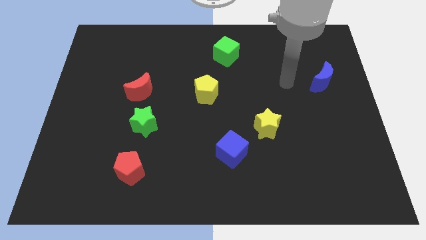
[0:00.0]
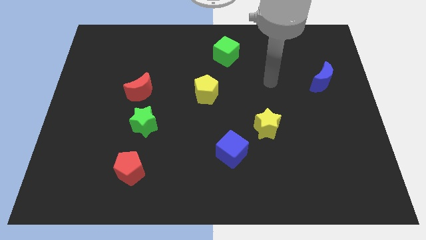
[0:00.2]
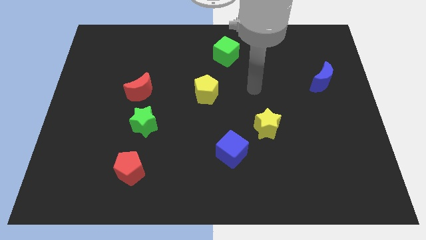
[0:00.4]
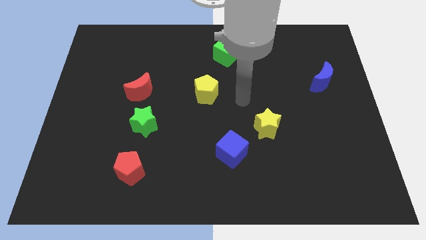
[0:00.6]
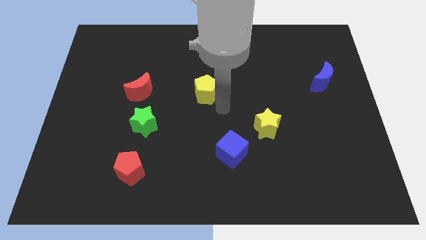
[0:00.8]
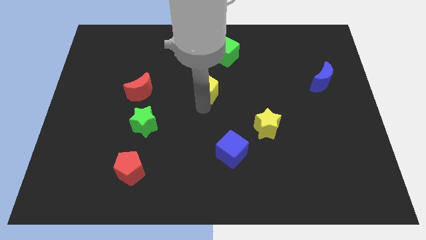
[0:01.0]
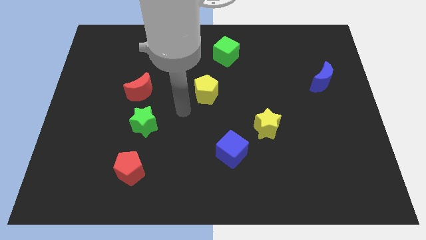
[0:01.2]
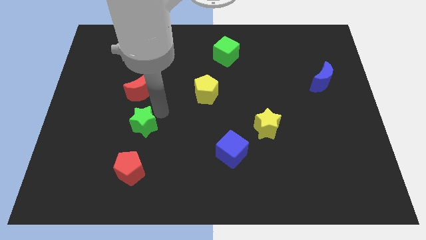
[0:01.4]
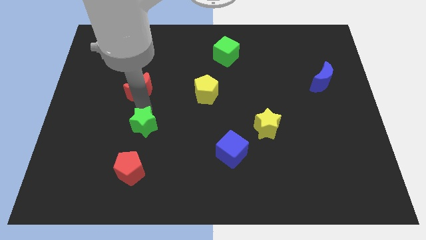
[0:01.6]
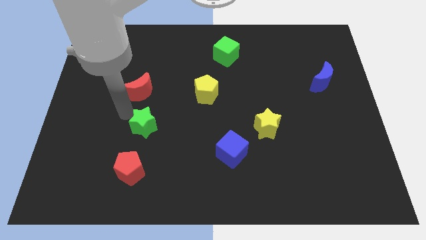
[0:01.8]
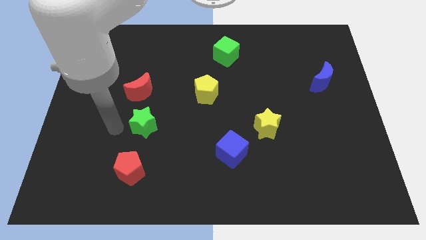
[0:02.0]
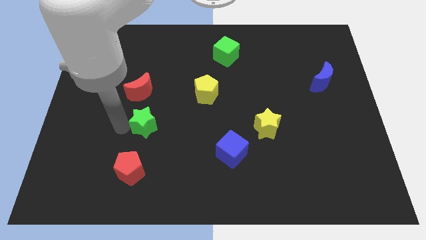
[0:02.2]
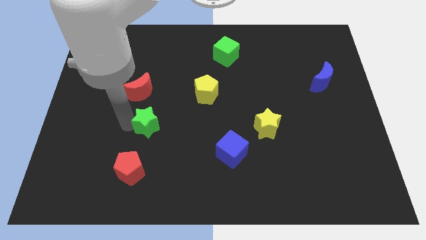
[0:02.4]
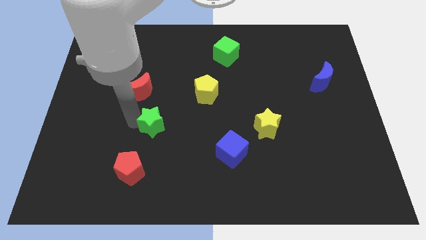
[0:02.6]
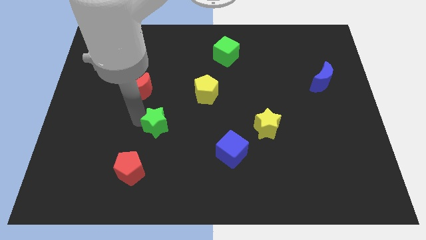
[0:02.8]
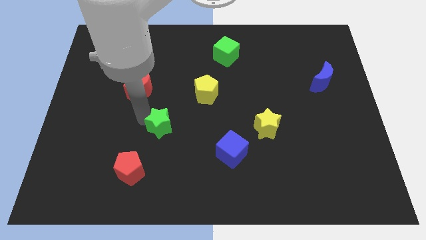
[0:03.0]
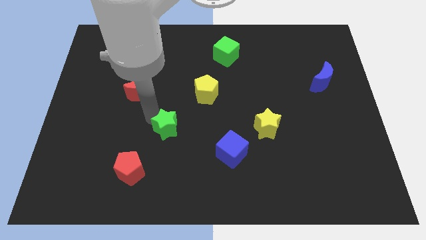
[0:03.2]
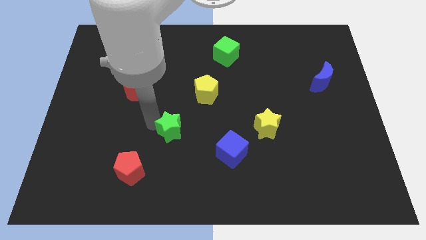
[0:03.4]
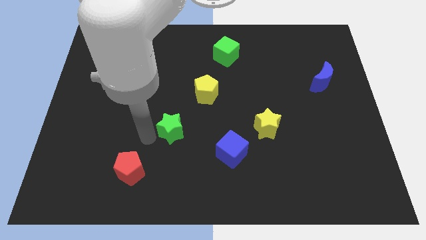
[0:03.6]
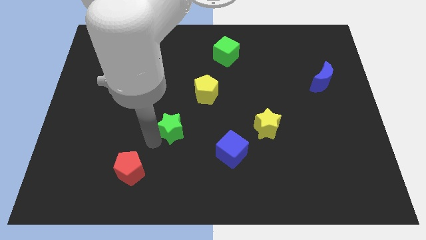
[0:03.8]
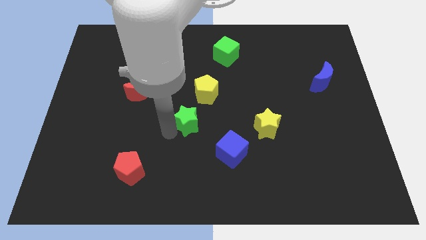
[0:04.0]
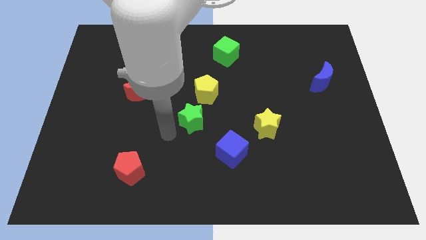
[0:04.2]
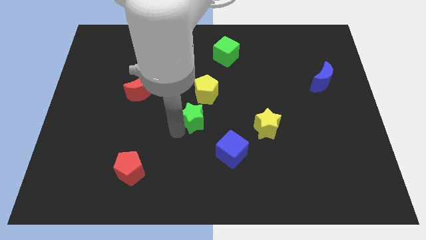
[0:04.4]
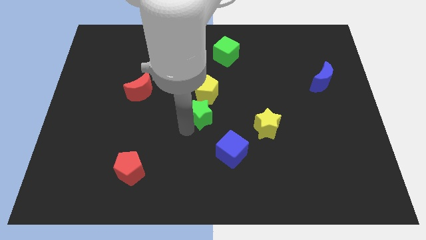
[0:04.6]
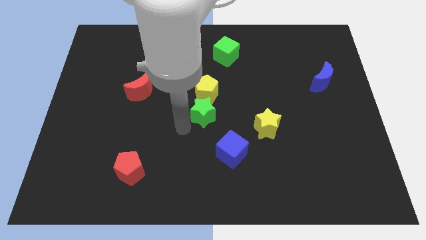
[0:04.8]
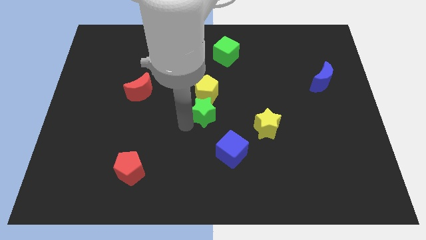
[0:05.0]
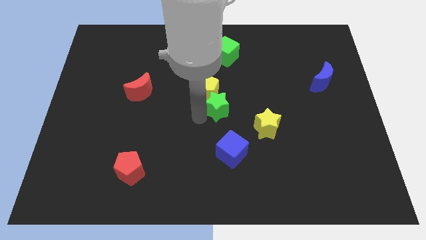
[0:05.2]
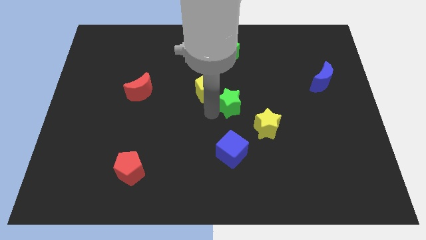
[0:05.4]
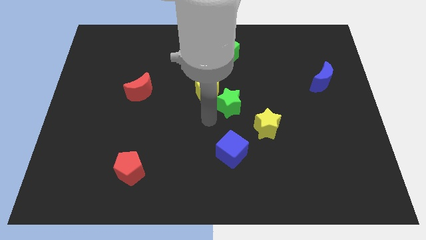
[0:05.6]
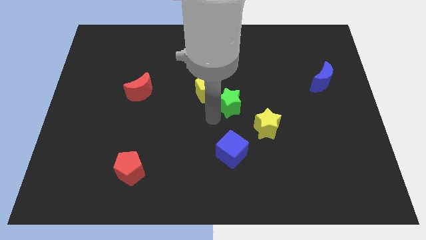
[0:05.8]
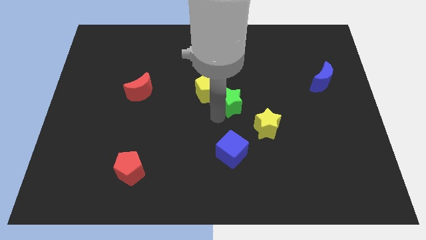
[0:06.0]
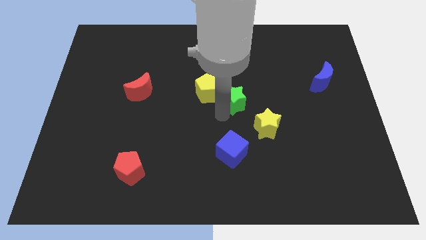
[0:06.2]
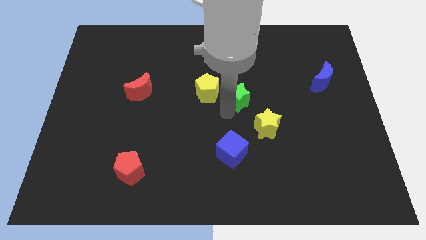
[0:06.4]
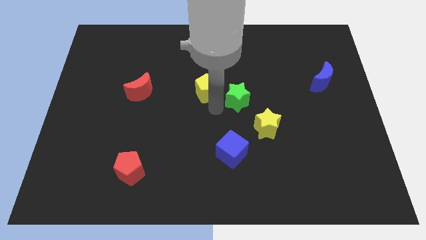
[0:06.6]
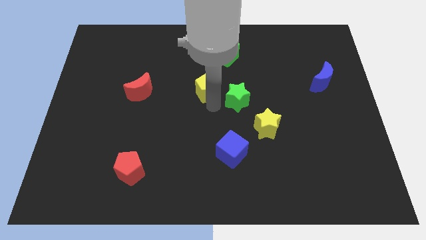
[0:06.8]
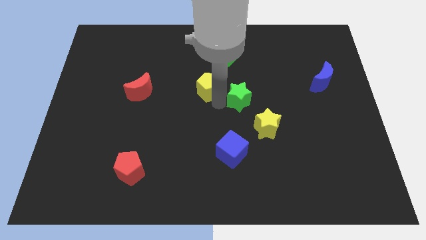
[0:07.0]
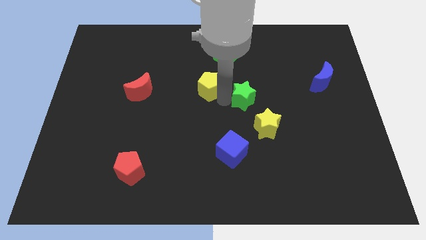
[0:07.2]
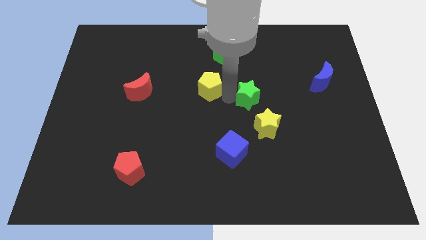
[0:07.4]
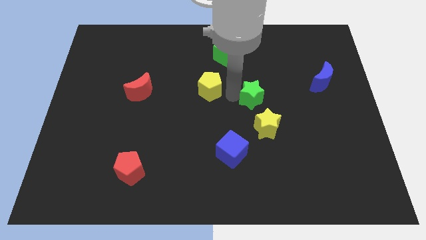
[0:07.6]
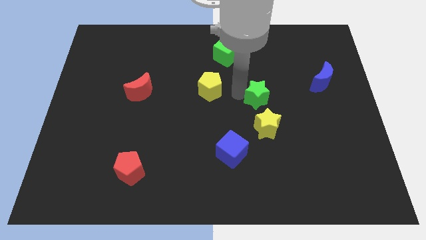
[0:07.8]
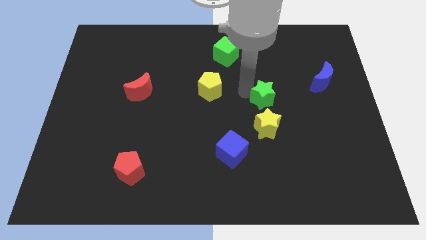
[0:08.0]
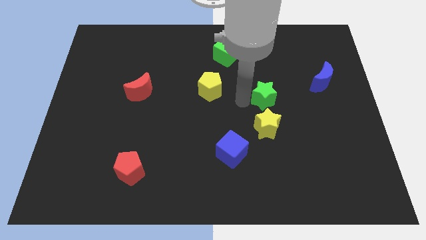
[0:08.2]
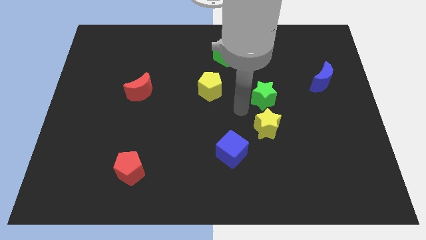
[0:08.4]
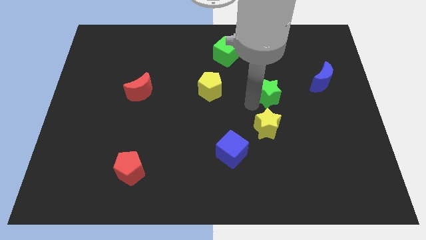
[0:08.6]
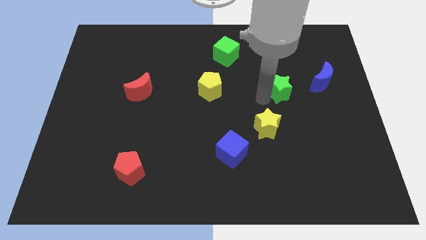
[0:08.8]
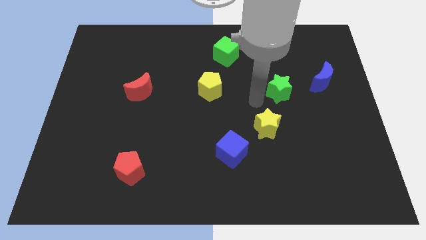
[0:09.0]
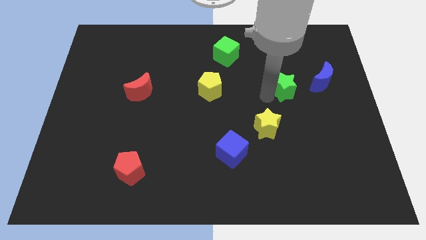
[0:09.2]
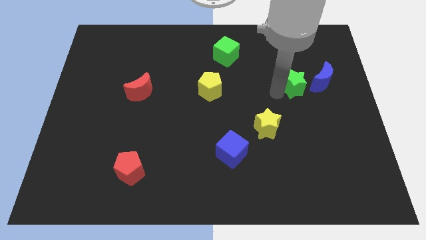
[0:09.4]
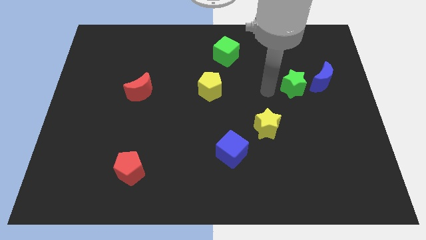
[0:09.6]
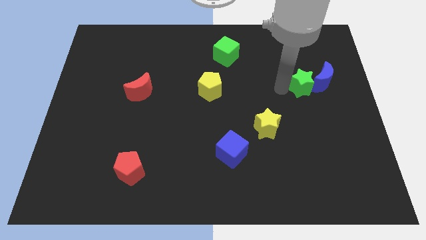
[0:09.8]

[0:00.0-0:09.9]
slide the green star next to the blue moon

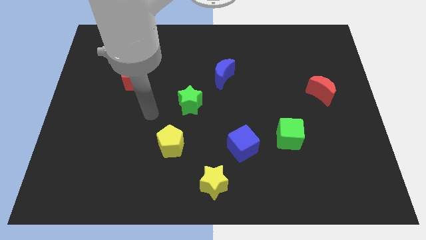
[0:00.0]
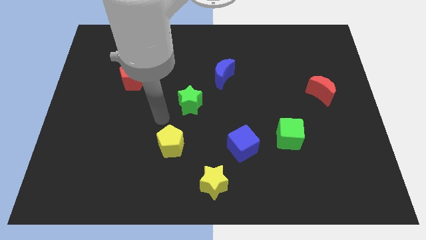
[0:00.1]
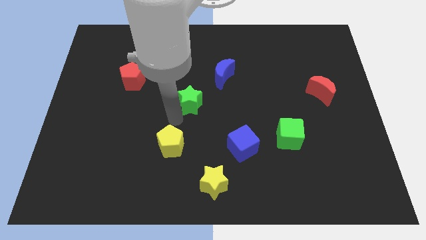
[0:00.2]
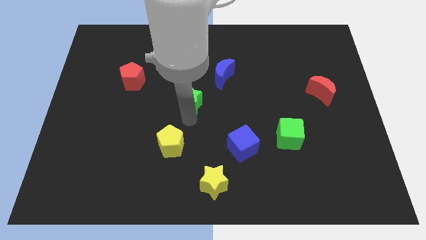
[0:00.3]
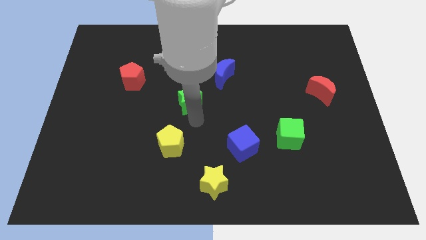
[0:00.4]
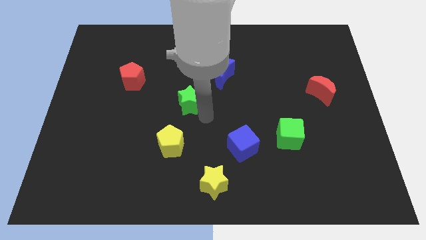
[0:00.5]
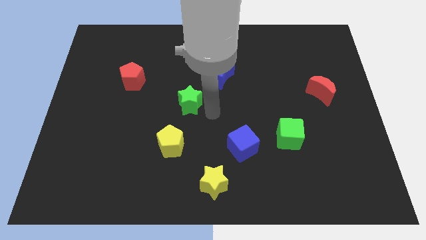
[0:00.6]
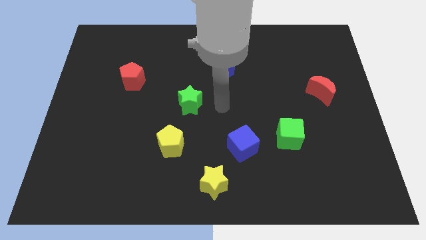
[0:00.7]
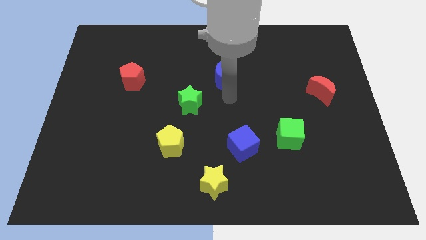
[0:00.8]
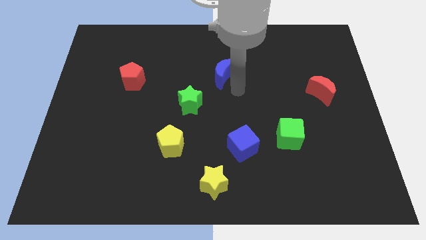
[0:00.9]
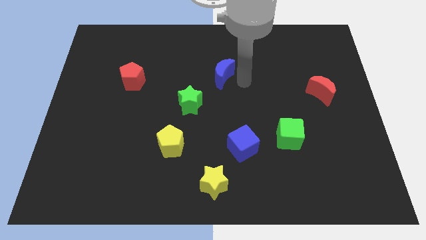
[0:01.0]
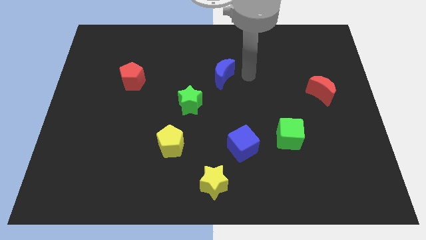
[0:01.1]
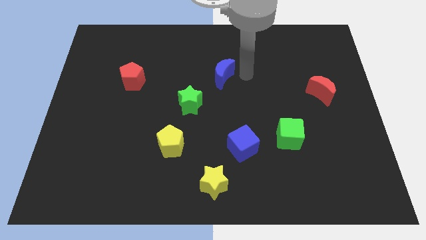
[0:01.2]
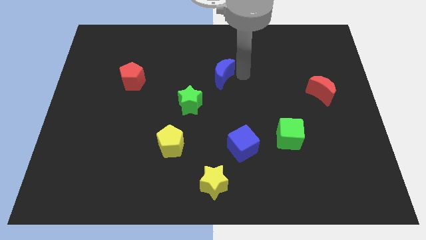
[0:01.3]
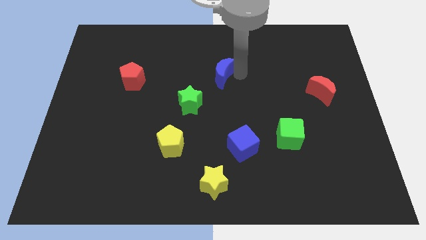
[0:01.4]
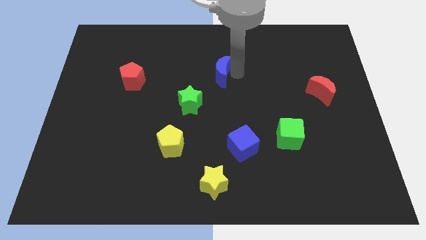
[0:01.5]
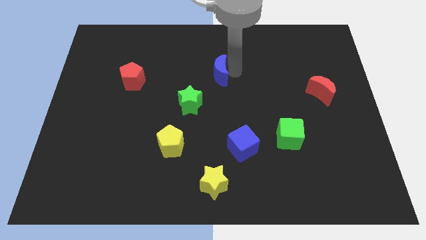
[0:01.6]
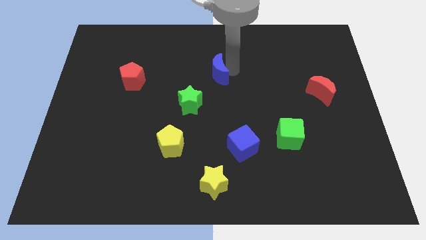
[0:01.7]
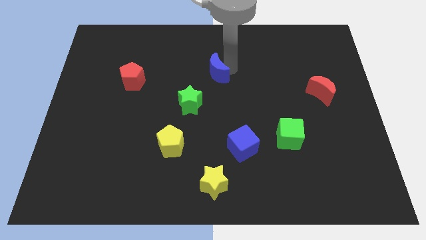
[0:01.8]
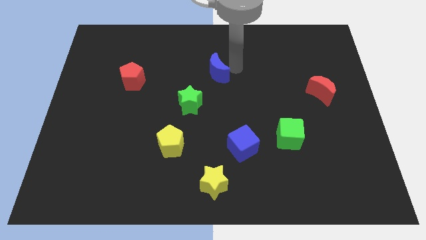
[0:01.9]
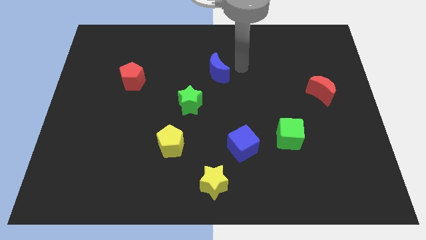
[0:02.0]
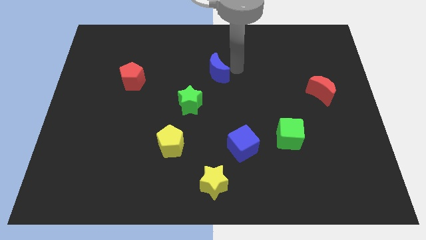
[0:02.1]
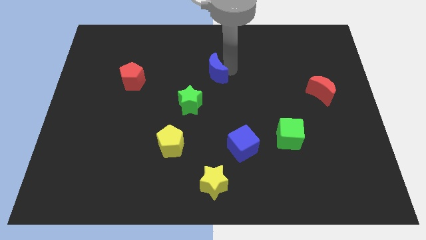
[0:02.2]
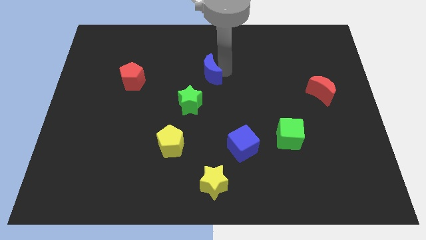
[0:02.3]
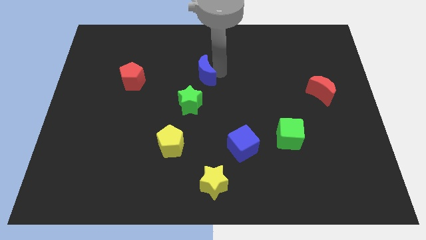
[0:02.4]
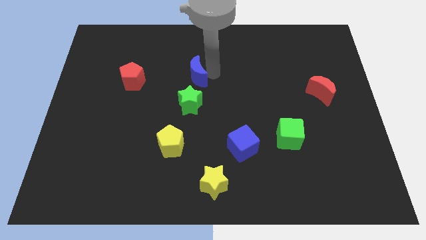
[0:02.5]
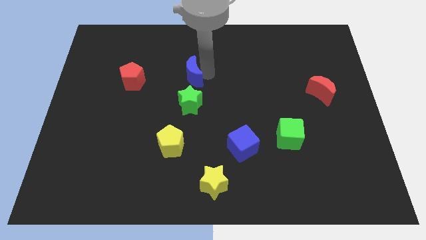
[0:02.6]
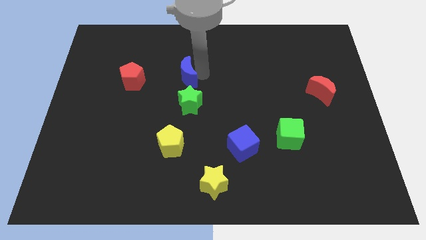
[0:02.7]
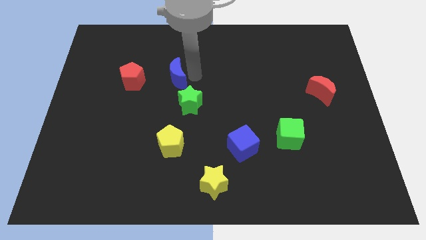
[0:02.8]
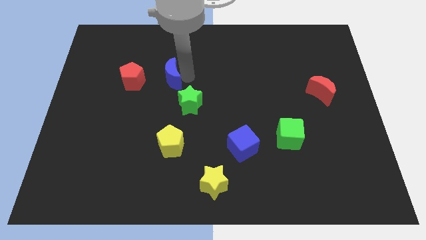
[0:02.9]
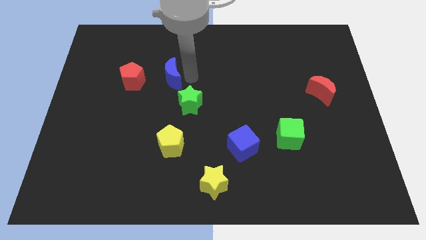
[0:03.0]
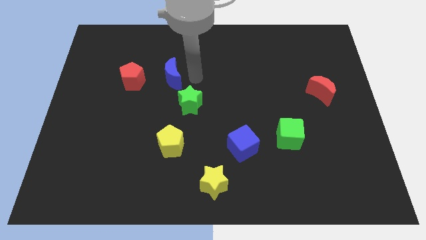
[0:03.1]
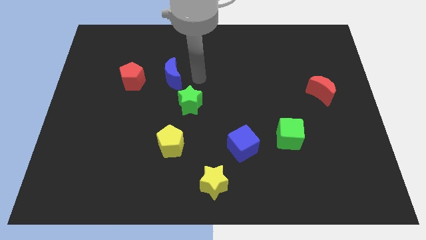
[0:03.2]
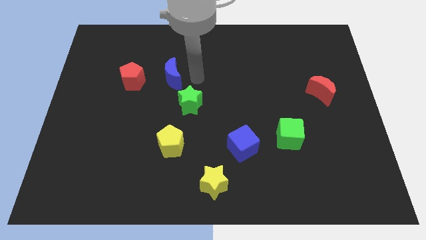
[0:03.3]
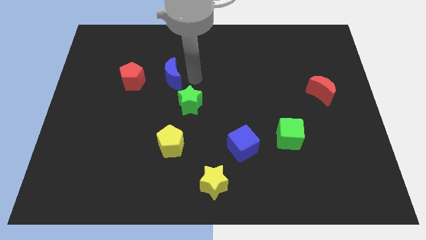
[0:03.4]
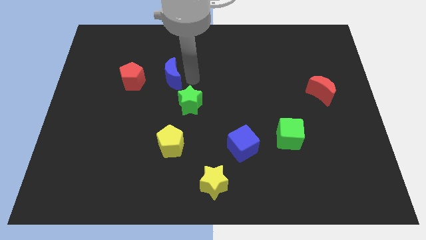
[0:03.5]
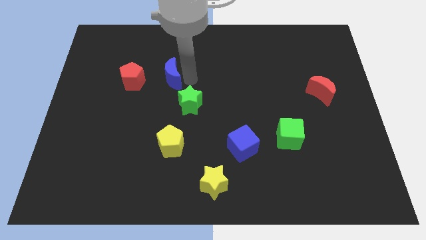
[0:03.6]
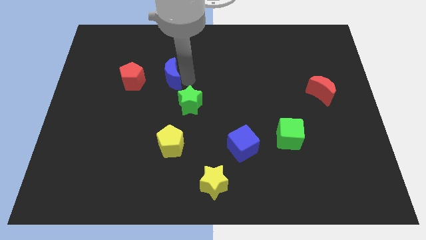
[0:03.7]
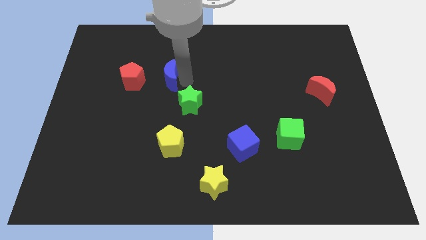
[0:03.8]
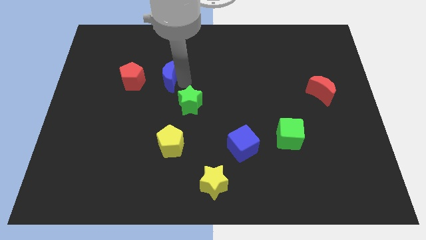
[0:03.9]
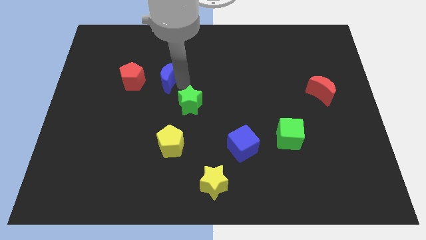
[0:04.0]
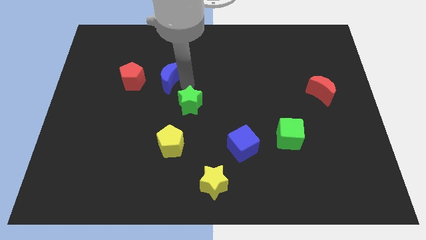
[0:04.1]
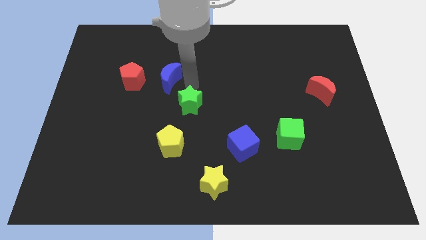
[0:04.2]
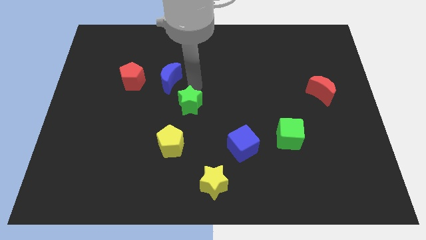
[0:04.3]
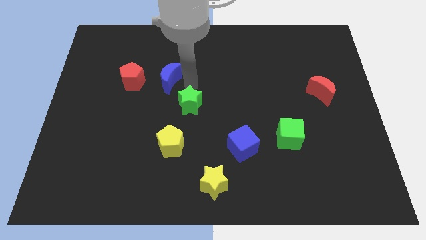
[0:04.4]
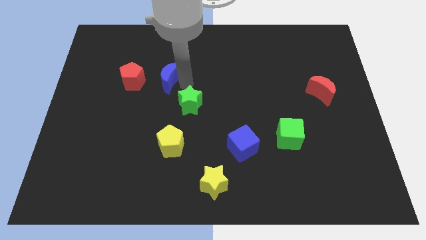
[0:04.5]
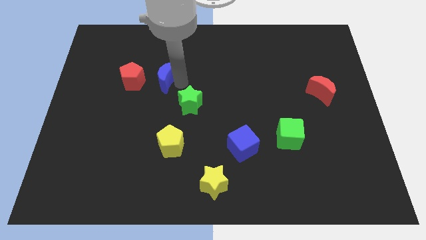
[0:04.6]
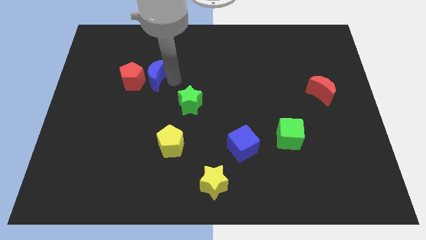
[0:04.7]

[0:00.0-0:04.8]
slide the blue moon close to the red pentagon
